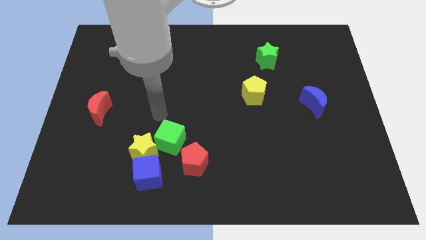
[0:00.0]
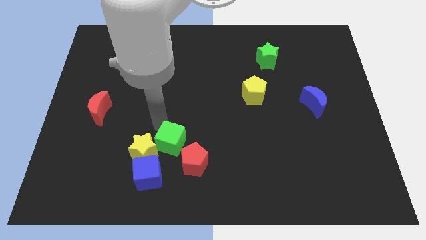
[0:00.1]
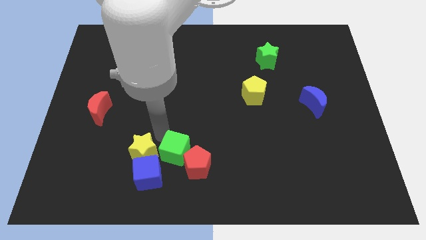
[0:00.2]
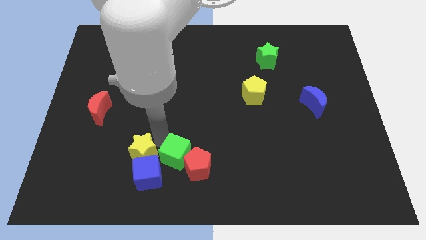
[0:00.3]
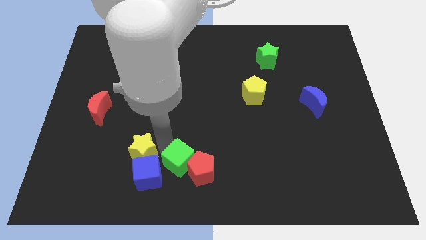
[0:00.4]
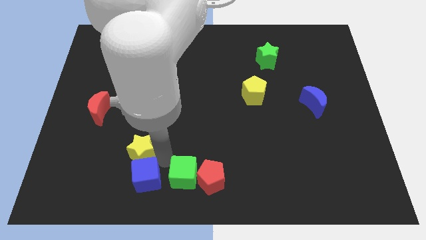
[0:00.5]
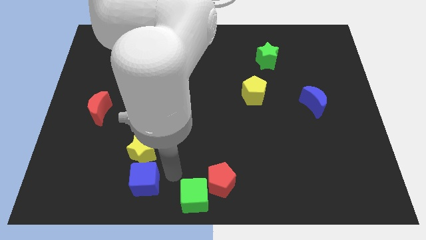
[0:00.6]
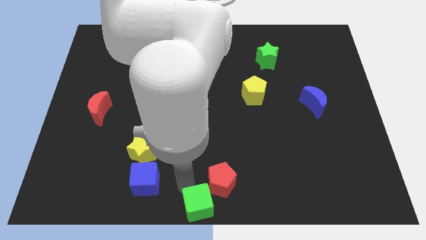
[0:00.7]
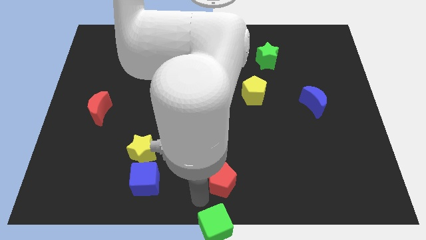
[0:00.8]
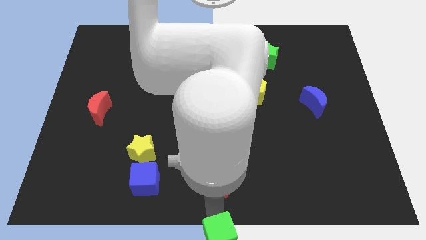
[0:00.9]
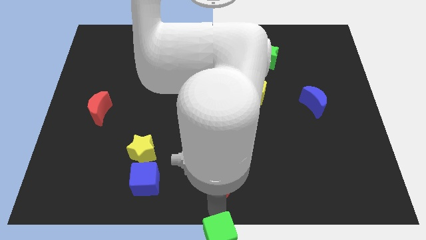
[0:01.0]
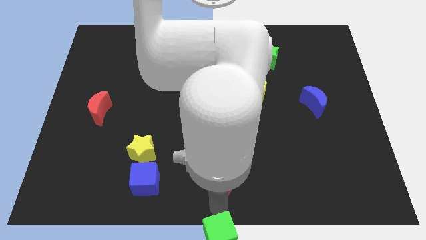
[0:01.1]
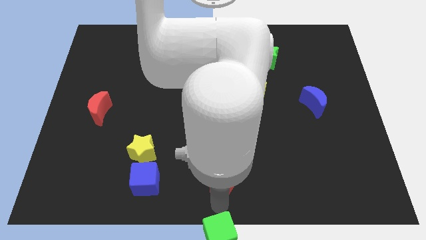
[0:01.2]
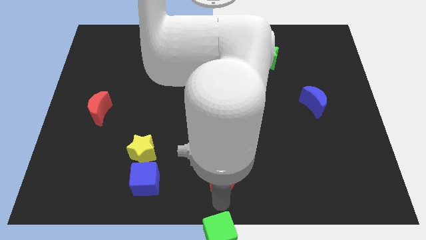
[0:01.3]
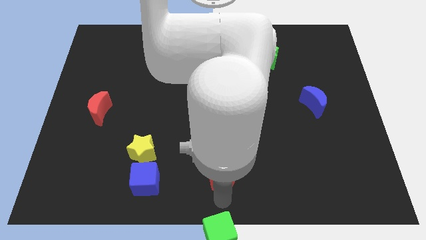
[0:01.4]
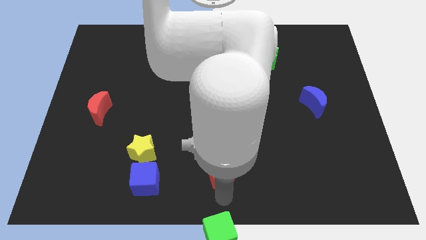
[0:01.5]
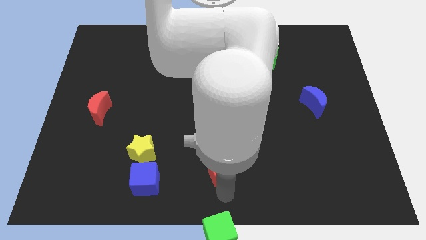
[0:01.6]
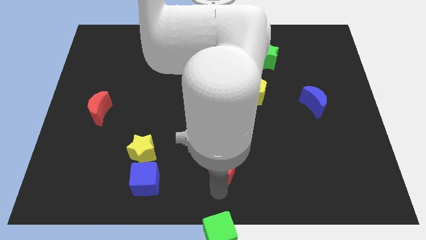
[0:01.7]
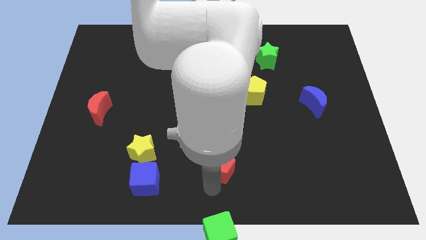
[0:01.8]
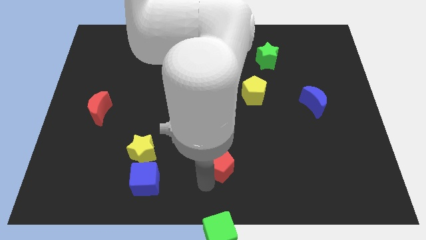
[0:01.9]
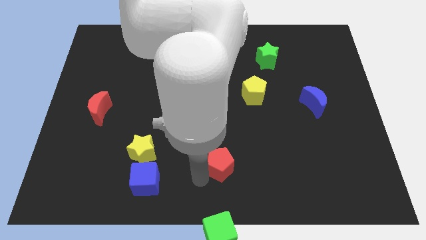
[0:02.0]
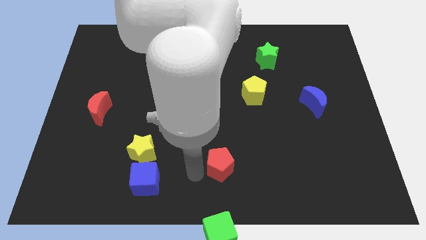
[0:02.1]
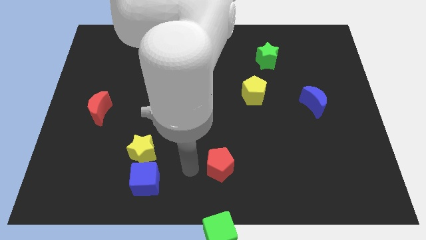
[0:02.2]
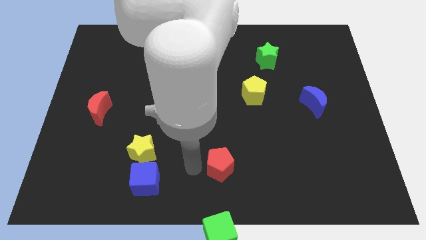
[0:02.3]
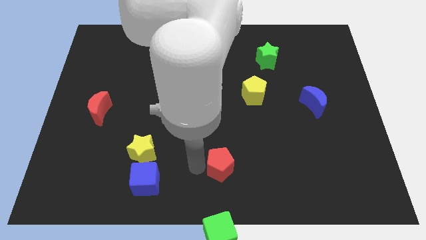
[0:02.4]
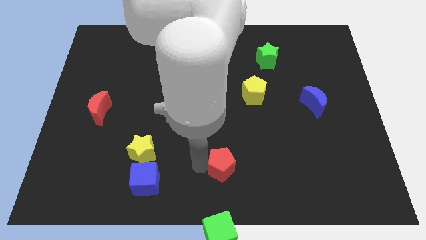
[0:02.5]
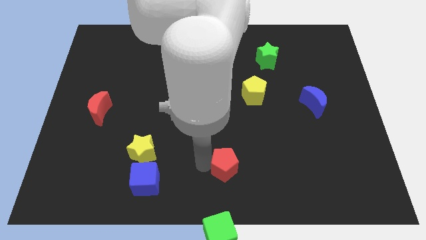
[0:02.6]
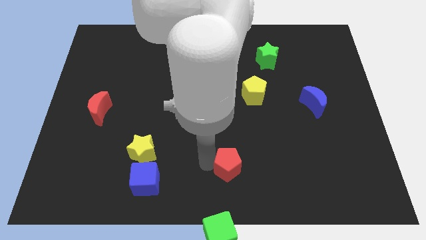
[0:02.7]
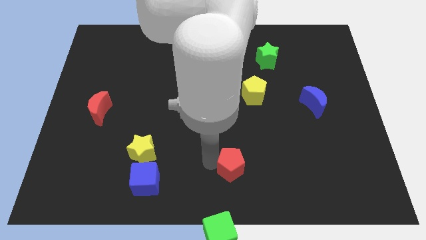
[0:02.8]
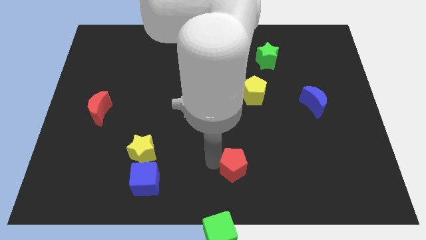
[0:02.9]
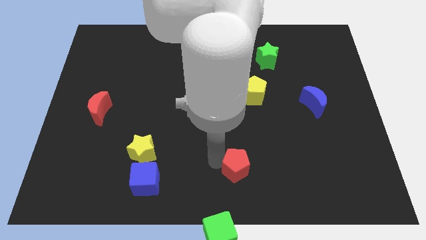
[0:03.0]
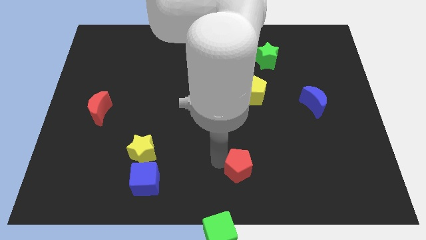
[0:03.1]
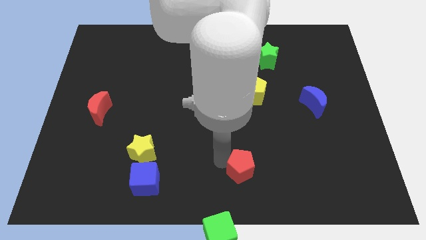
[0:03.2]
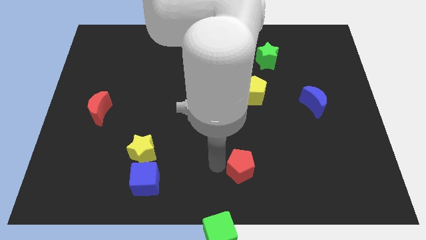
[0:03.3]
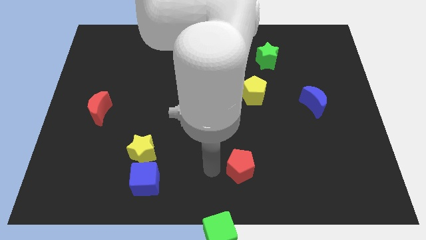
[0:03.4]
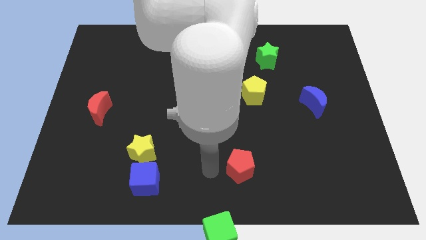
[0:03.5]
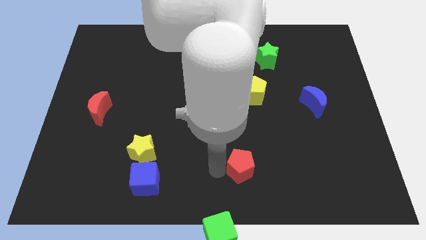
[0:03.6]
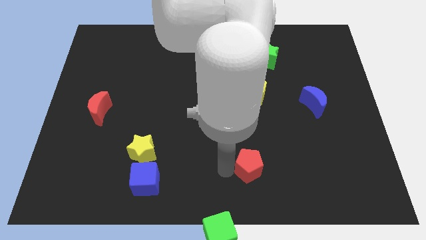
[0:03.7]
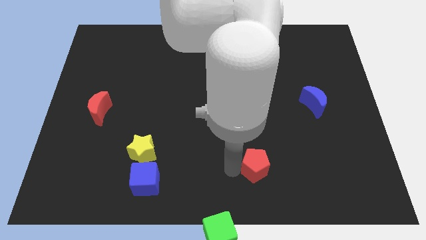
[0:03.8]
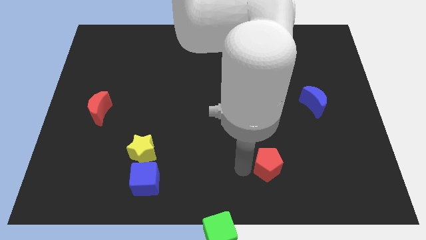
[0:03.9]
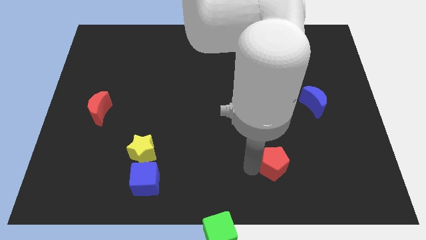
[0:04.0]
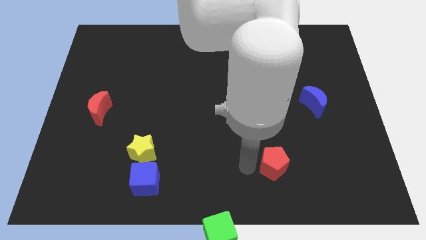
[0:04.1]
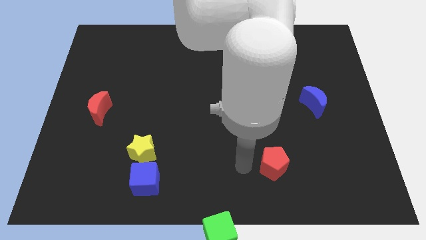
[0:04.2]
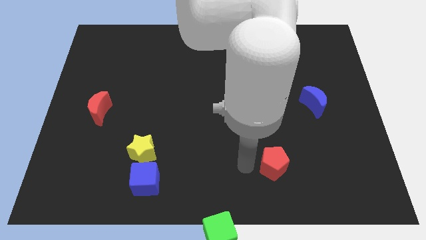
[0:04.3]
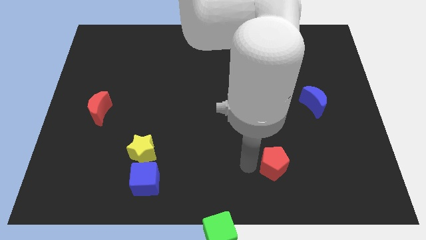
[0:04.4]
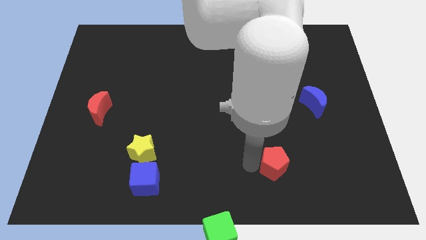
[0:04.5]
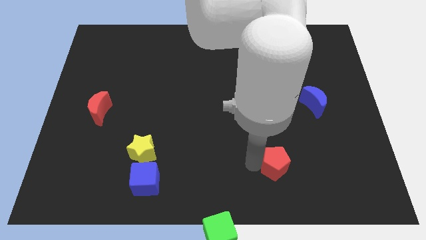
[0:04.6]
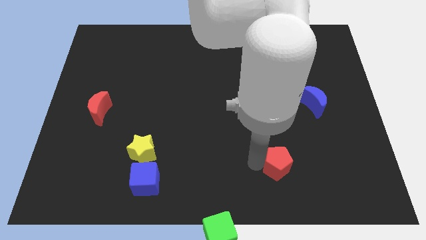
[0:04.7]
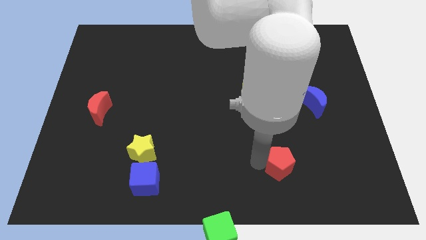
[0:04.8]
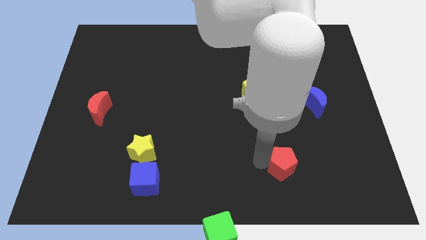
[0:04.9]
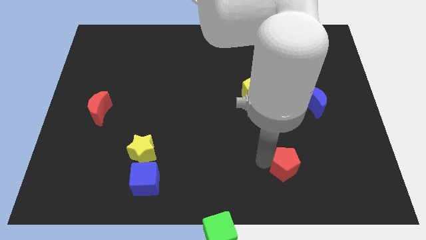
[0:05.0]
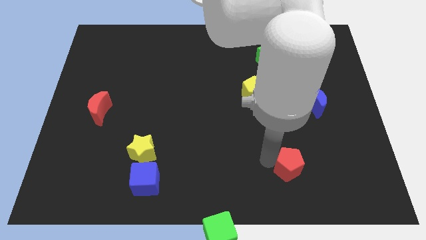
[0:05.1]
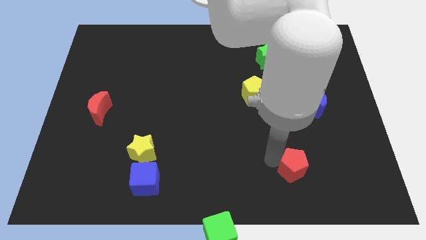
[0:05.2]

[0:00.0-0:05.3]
move the red pentagon right

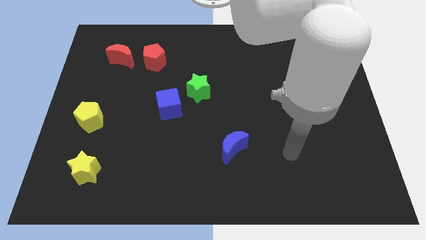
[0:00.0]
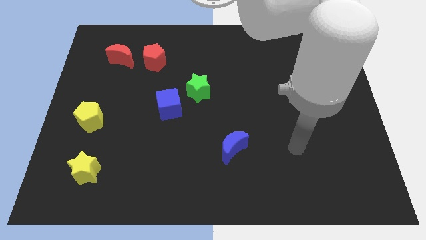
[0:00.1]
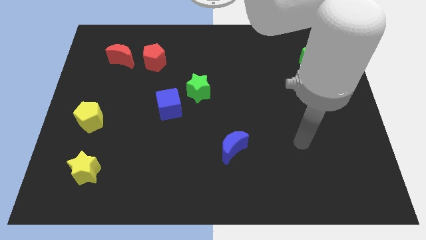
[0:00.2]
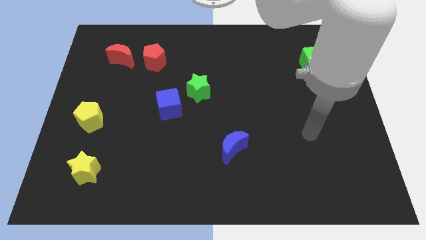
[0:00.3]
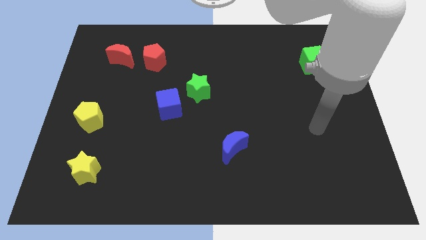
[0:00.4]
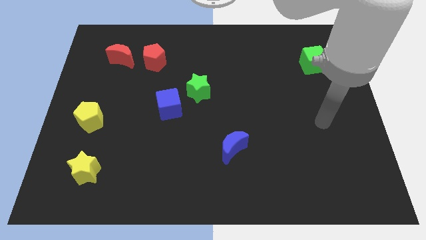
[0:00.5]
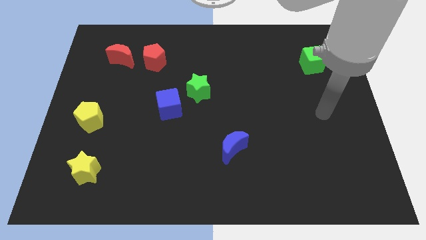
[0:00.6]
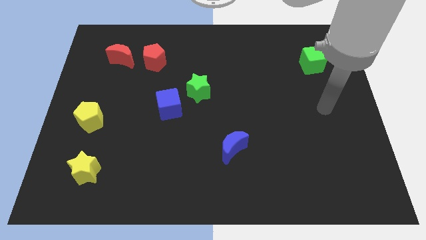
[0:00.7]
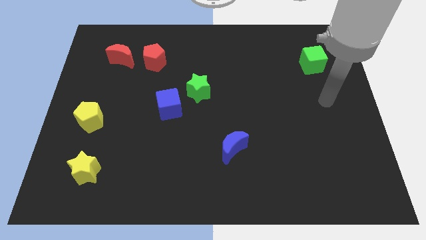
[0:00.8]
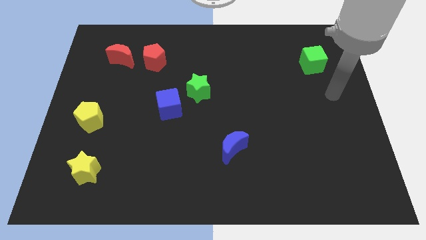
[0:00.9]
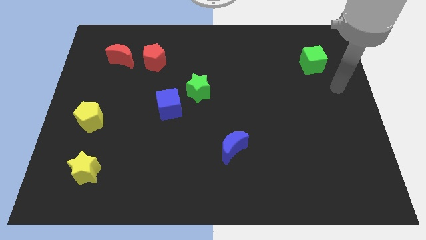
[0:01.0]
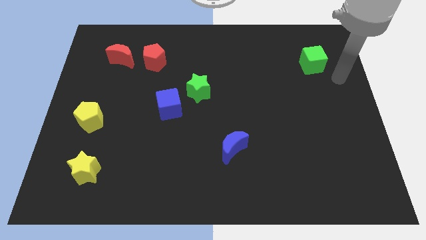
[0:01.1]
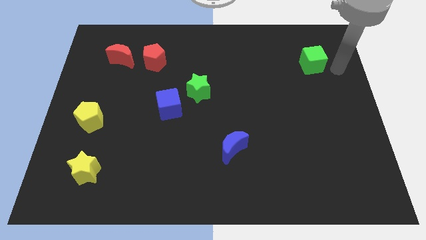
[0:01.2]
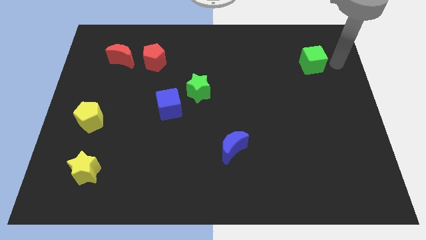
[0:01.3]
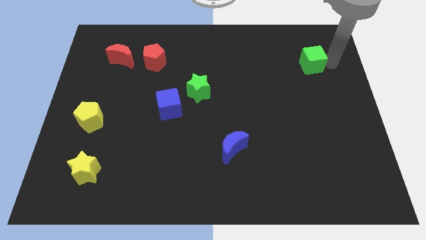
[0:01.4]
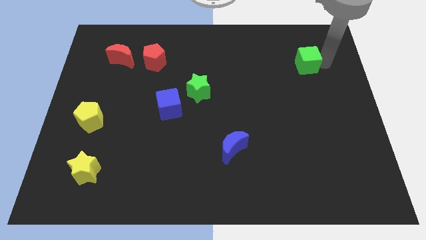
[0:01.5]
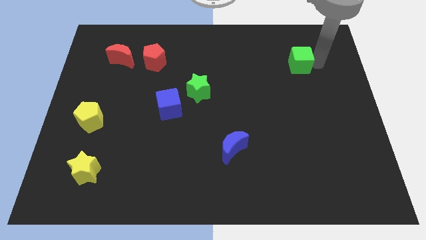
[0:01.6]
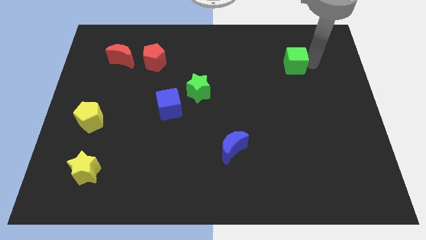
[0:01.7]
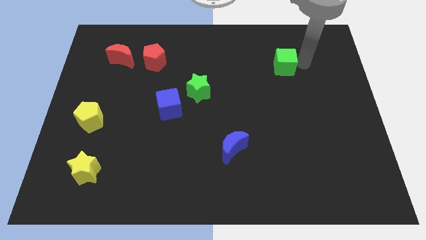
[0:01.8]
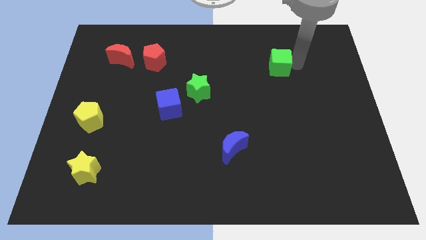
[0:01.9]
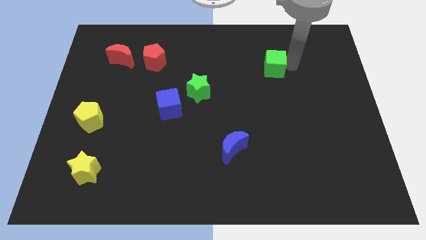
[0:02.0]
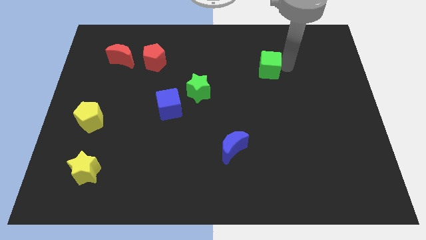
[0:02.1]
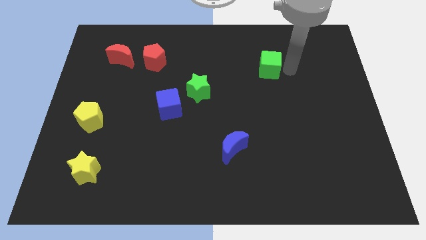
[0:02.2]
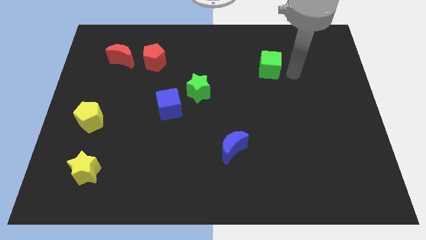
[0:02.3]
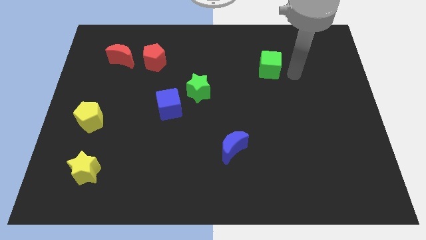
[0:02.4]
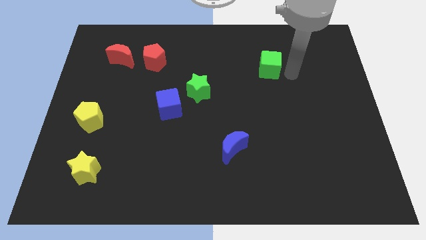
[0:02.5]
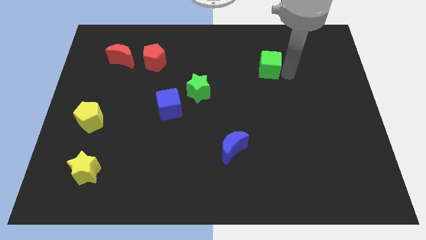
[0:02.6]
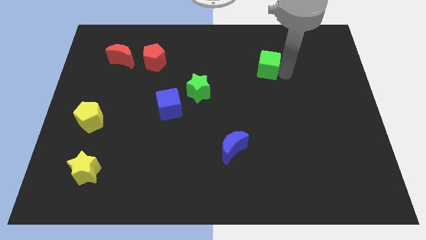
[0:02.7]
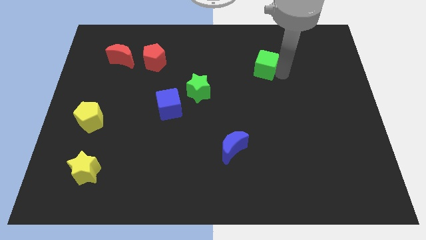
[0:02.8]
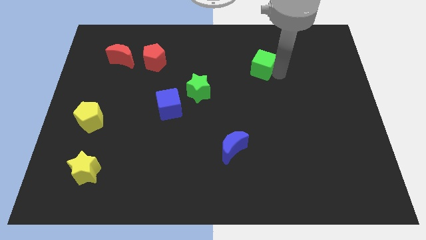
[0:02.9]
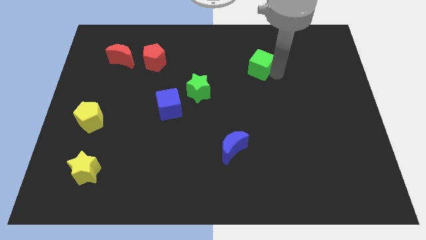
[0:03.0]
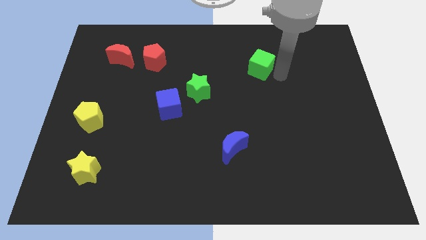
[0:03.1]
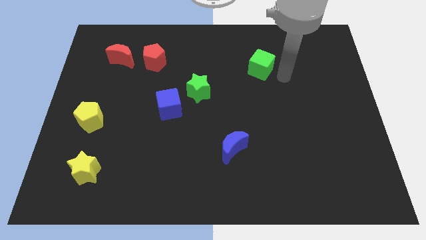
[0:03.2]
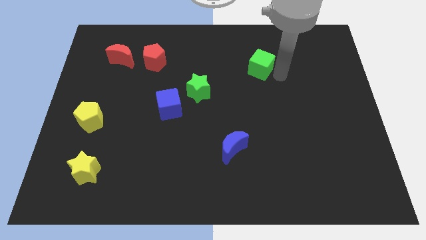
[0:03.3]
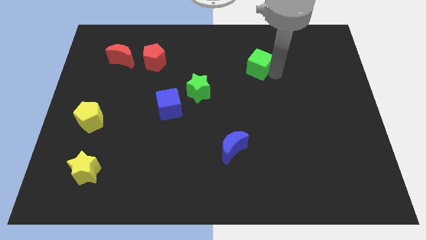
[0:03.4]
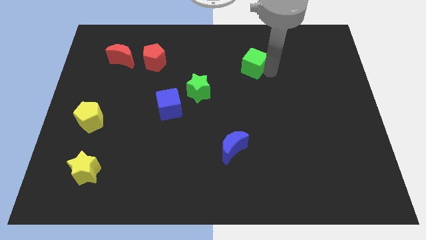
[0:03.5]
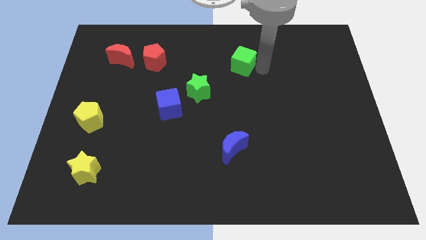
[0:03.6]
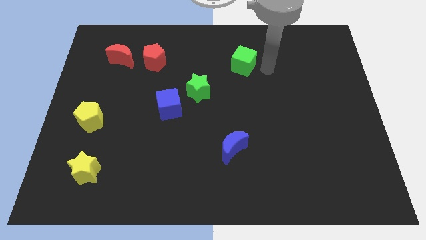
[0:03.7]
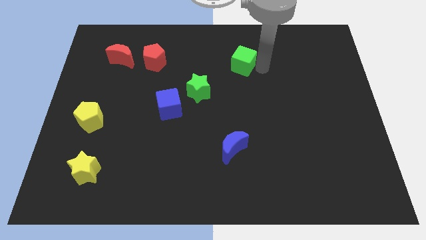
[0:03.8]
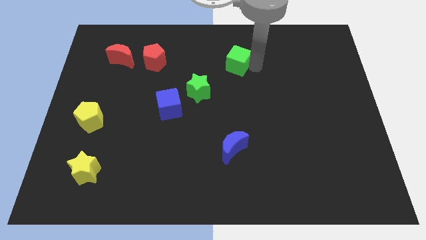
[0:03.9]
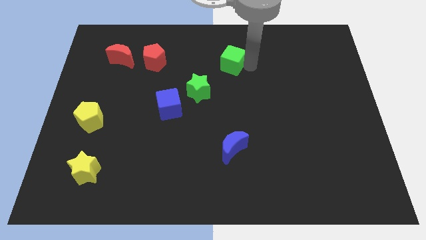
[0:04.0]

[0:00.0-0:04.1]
slide the green cube to the left
